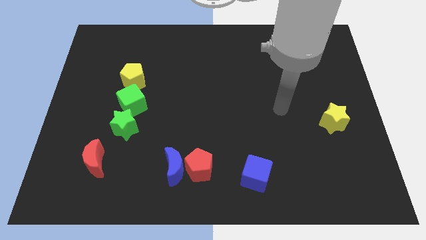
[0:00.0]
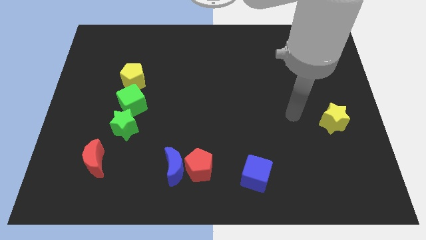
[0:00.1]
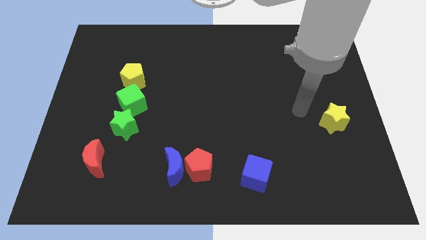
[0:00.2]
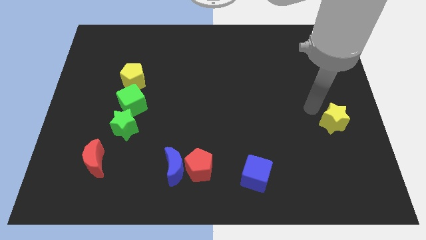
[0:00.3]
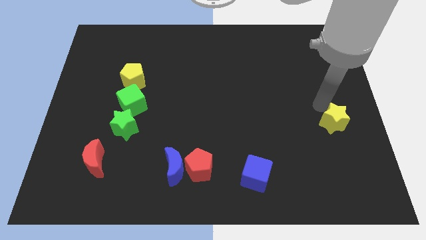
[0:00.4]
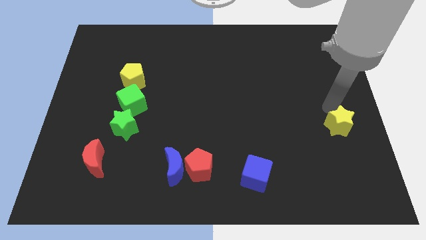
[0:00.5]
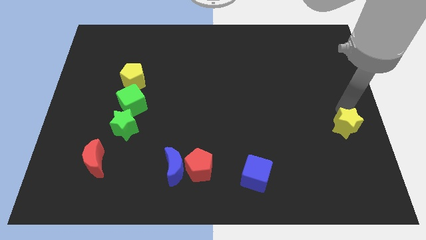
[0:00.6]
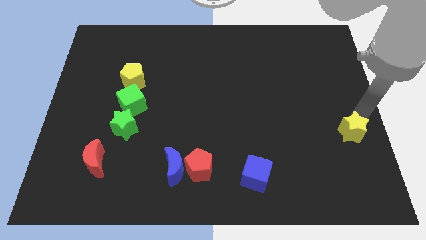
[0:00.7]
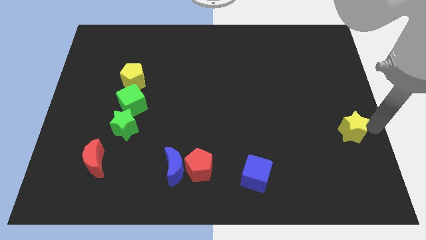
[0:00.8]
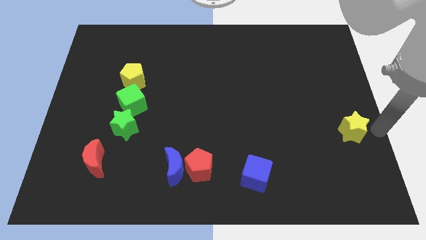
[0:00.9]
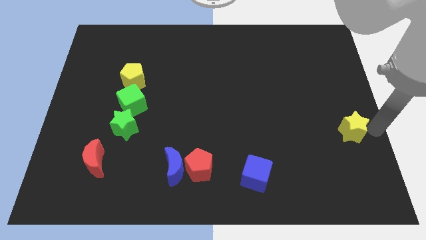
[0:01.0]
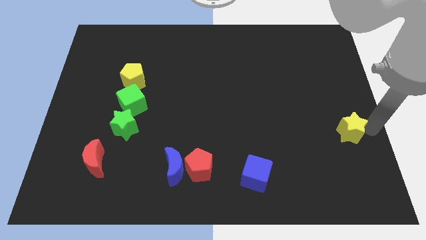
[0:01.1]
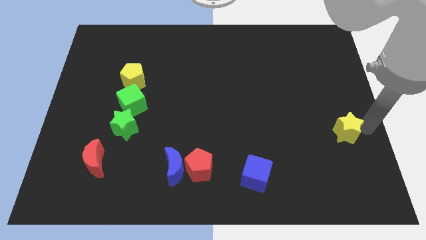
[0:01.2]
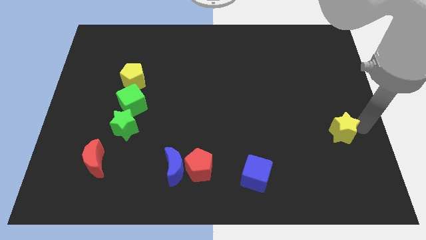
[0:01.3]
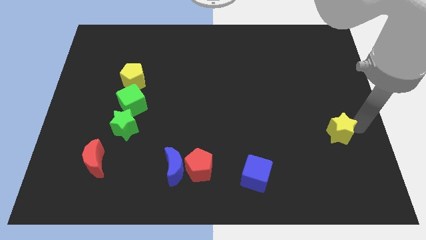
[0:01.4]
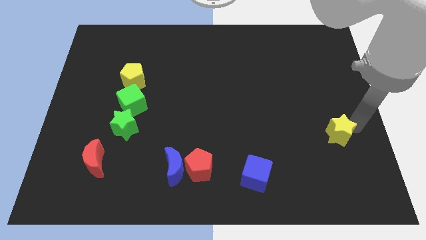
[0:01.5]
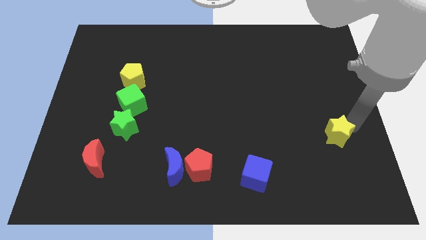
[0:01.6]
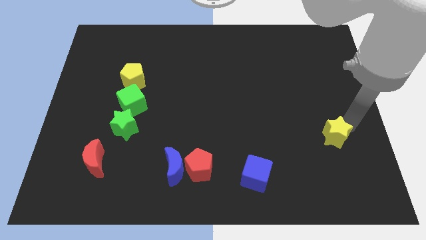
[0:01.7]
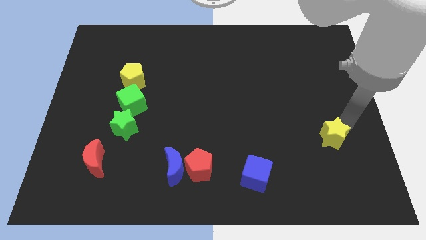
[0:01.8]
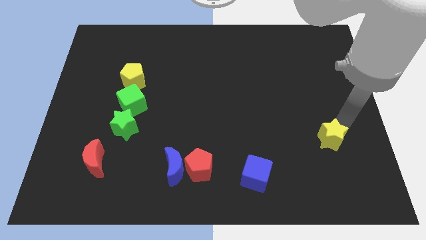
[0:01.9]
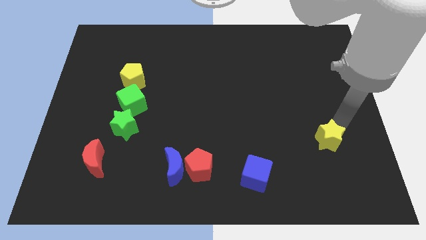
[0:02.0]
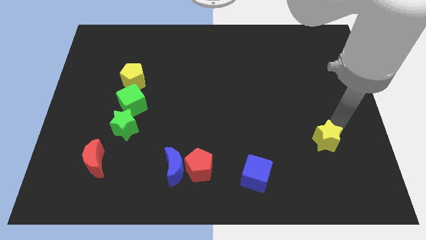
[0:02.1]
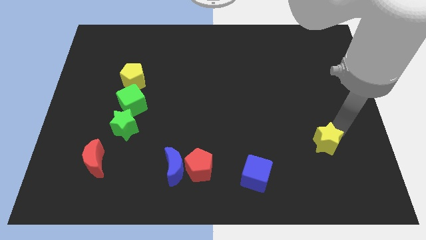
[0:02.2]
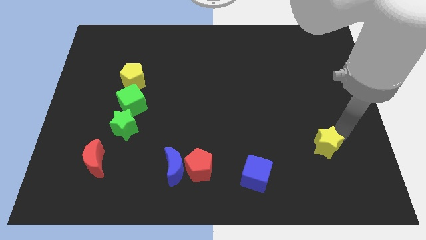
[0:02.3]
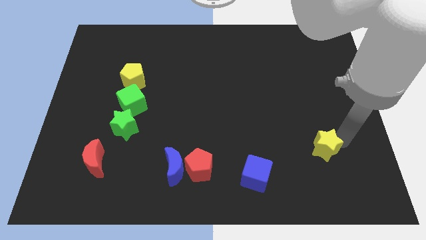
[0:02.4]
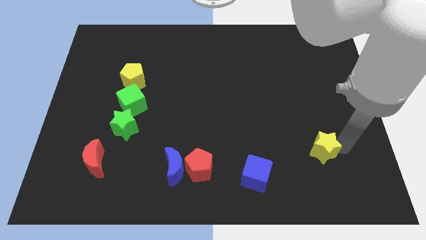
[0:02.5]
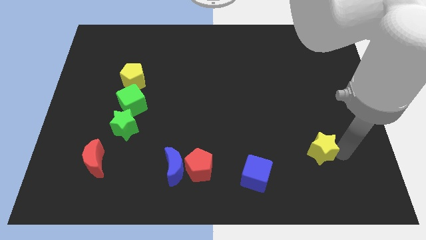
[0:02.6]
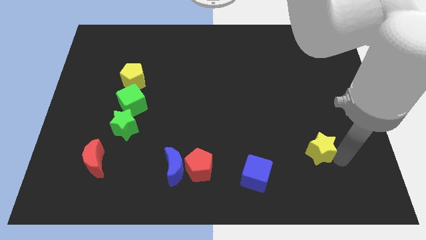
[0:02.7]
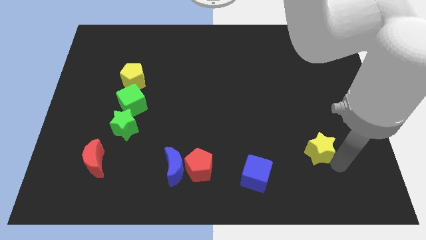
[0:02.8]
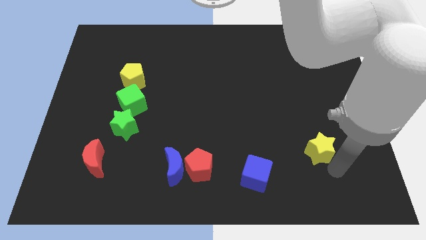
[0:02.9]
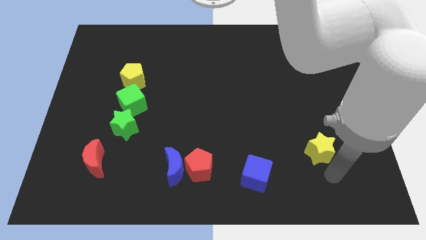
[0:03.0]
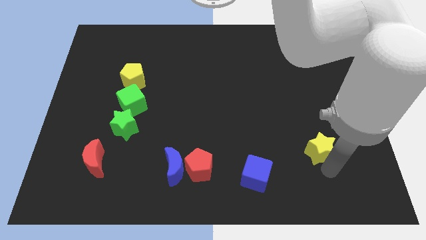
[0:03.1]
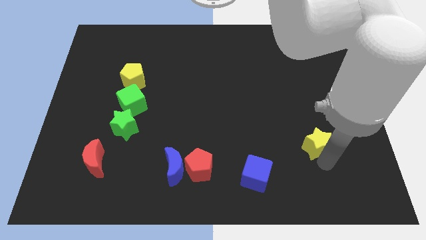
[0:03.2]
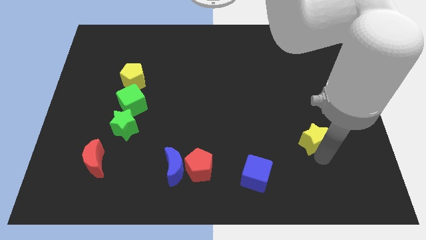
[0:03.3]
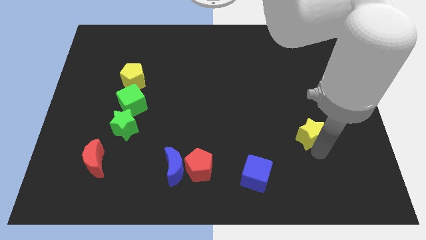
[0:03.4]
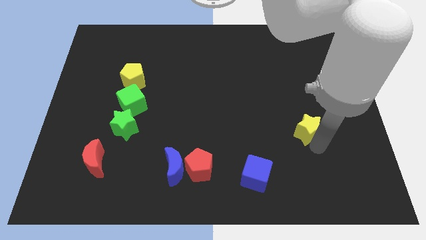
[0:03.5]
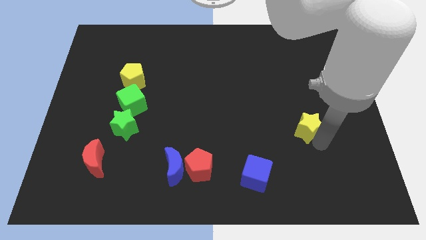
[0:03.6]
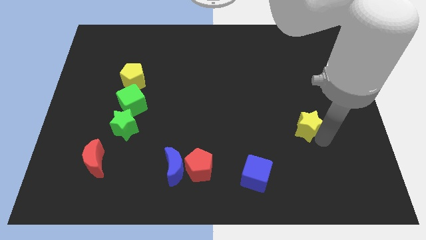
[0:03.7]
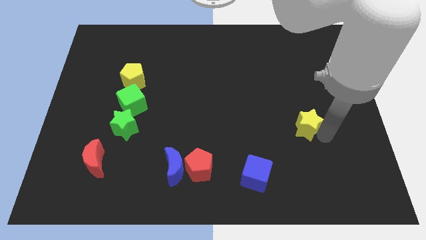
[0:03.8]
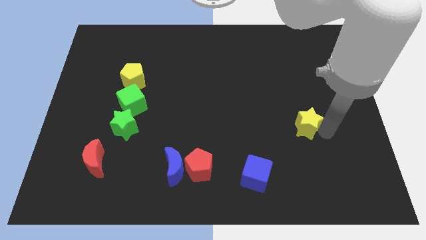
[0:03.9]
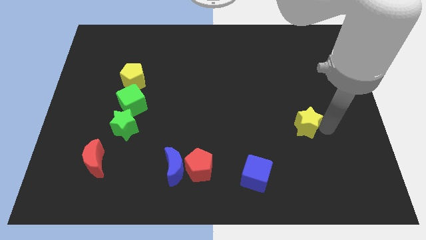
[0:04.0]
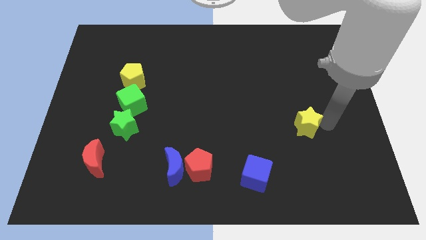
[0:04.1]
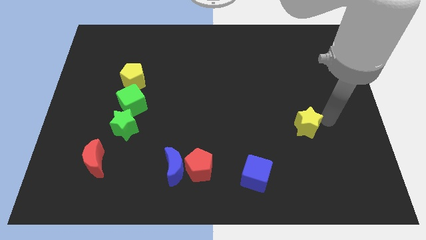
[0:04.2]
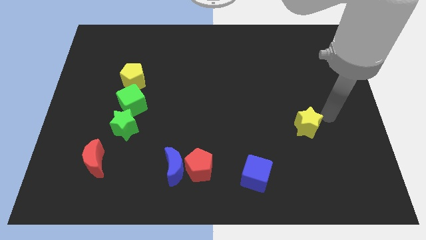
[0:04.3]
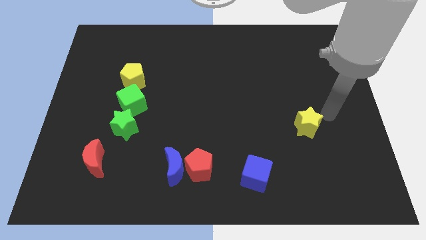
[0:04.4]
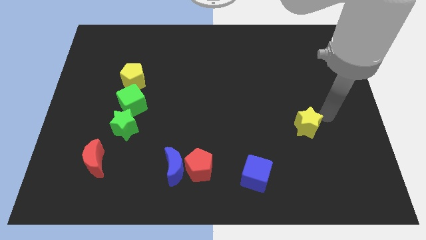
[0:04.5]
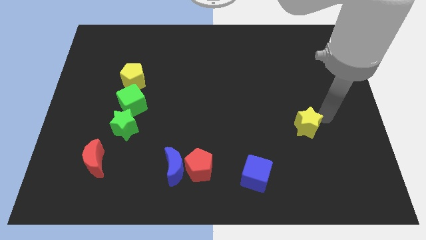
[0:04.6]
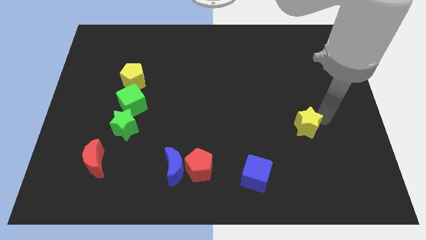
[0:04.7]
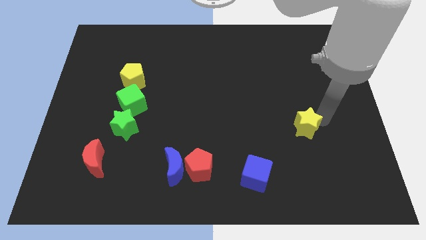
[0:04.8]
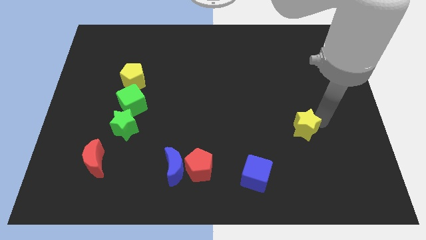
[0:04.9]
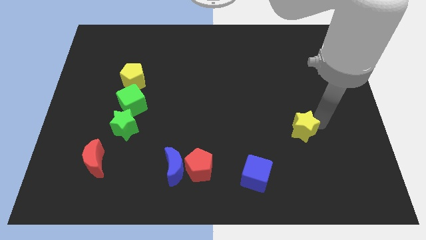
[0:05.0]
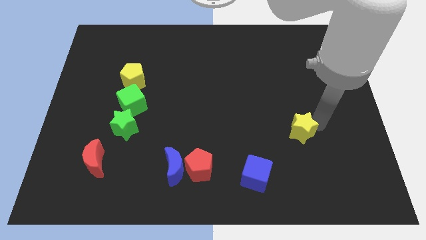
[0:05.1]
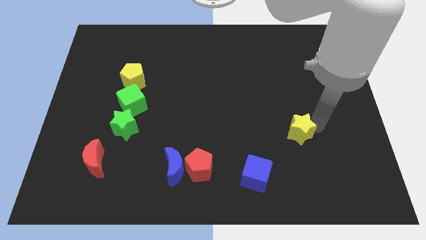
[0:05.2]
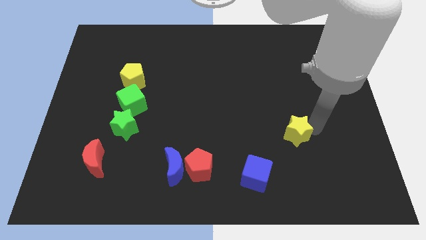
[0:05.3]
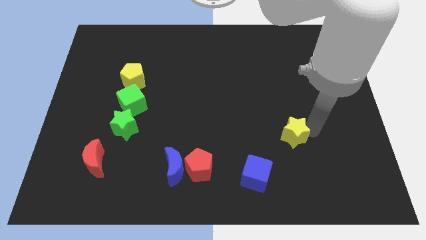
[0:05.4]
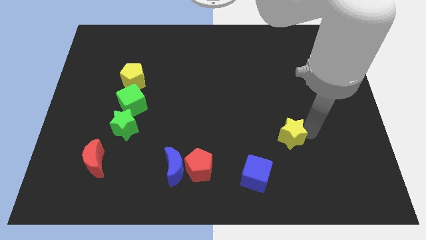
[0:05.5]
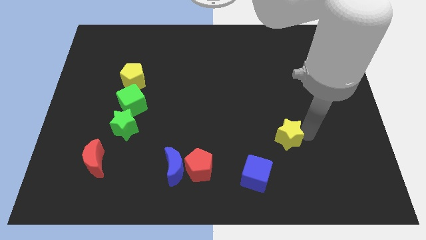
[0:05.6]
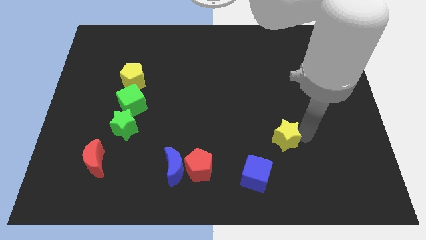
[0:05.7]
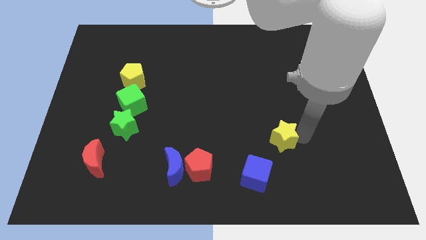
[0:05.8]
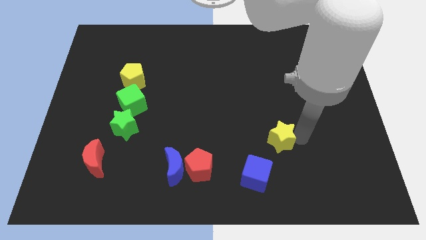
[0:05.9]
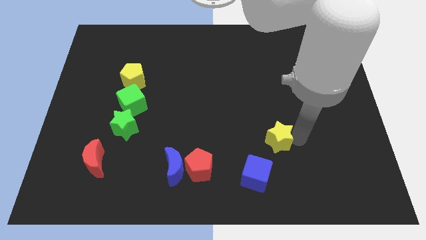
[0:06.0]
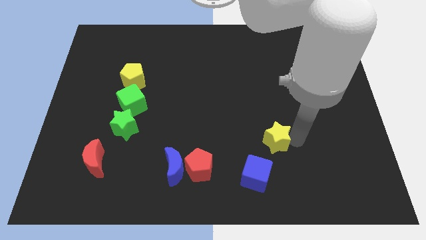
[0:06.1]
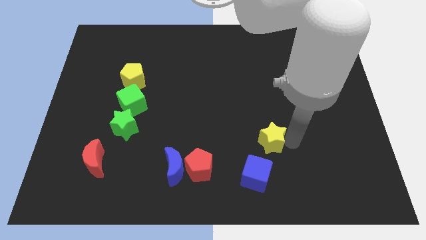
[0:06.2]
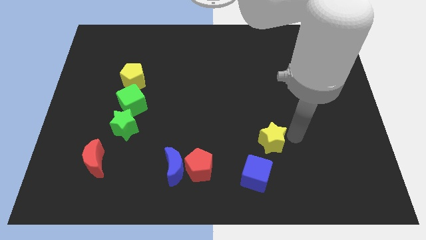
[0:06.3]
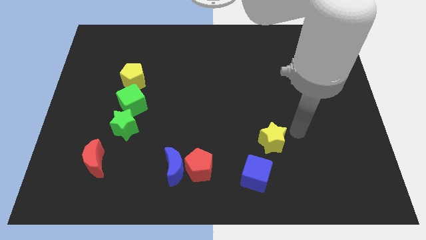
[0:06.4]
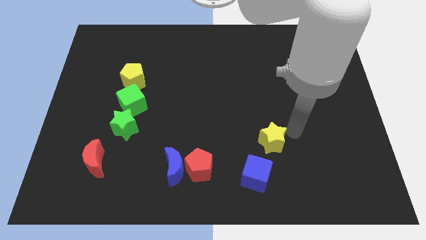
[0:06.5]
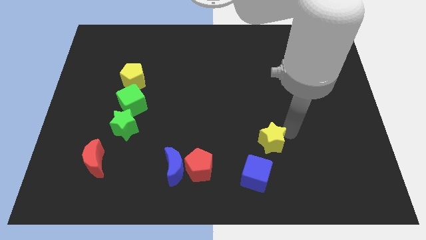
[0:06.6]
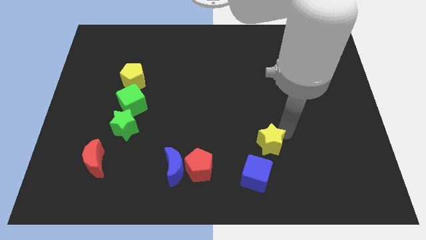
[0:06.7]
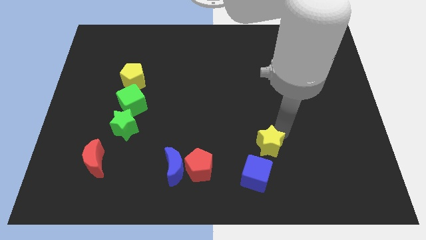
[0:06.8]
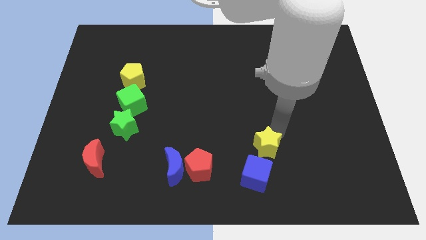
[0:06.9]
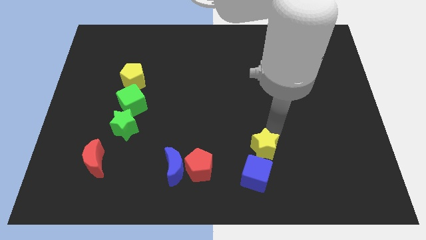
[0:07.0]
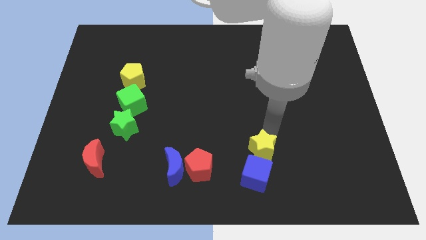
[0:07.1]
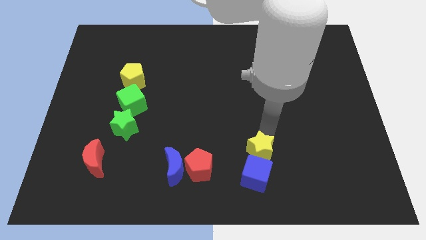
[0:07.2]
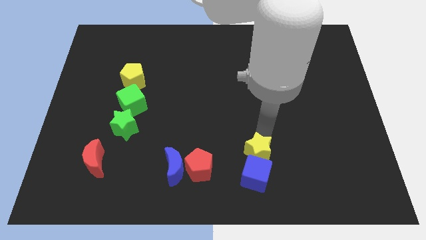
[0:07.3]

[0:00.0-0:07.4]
slide the yellow star to the top left of the blue cube
